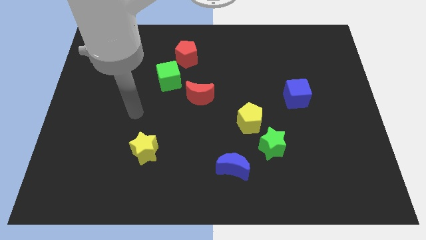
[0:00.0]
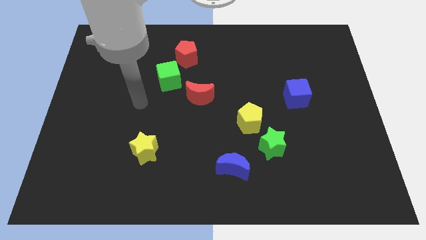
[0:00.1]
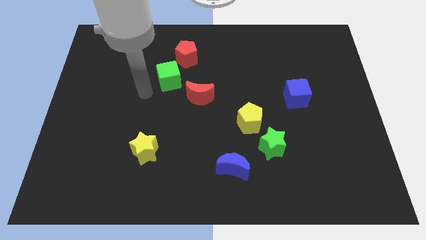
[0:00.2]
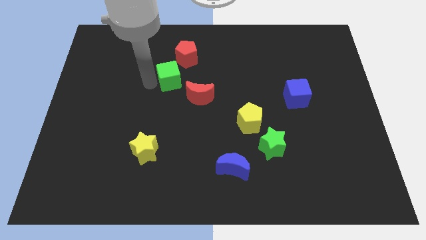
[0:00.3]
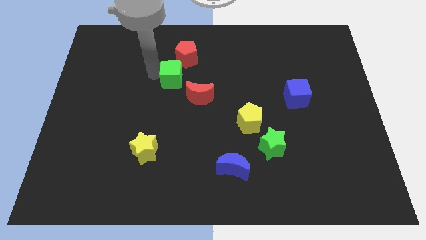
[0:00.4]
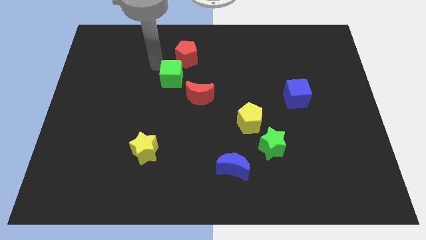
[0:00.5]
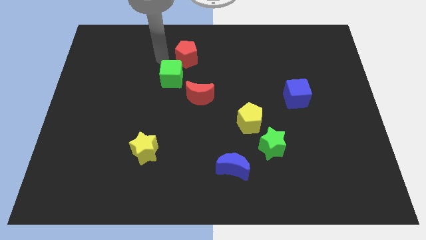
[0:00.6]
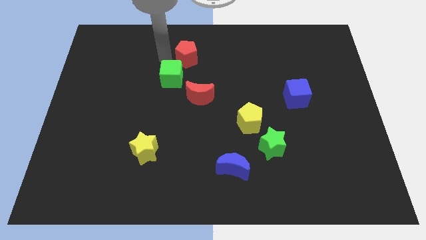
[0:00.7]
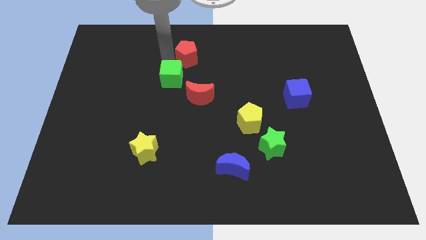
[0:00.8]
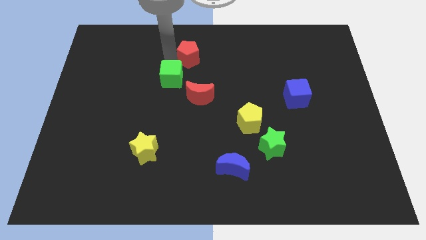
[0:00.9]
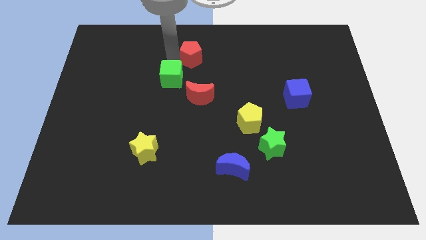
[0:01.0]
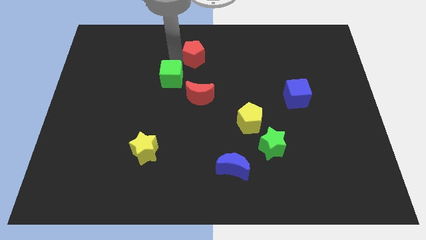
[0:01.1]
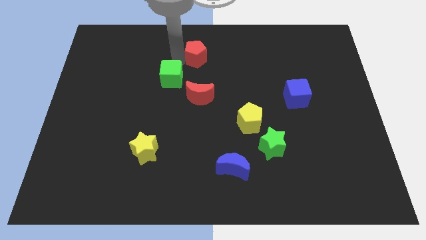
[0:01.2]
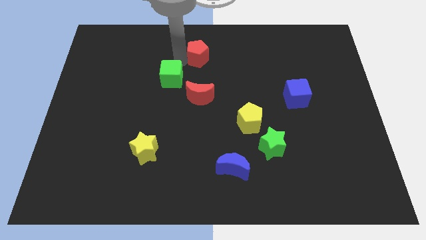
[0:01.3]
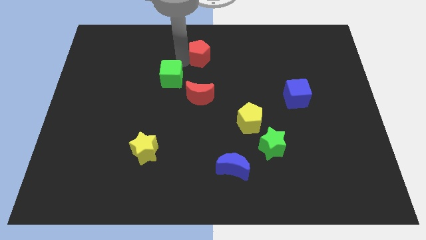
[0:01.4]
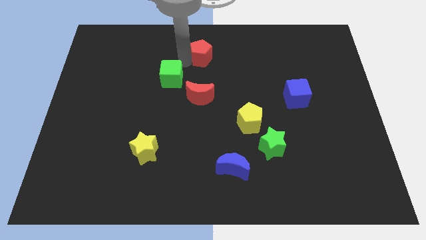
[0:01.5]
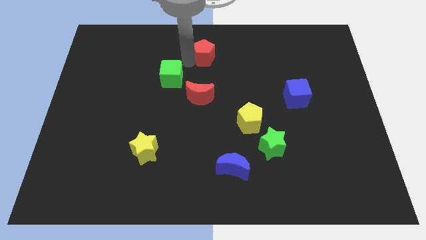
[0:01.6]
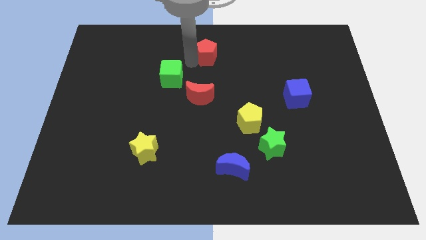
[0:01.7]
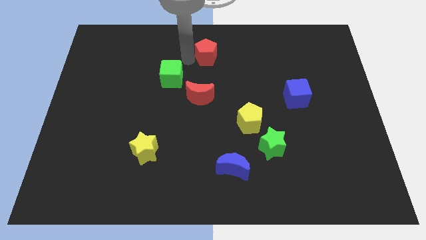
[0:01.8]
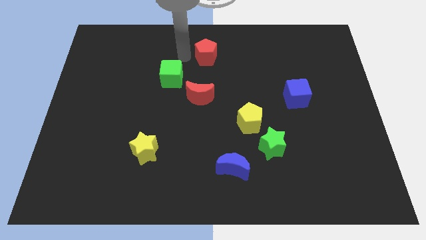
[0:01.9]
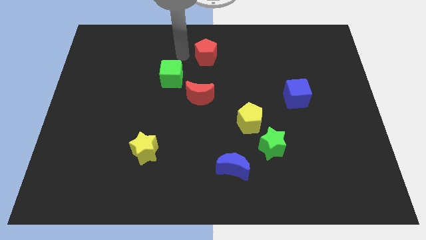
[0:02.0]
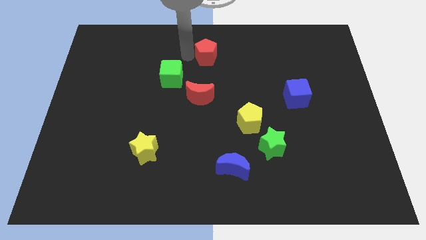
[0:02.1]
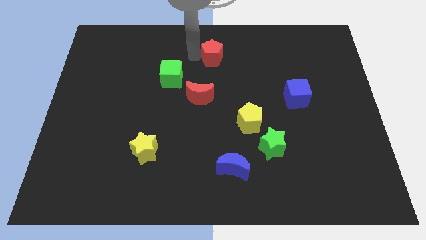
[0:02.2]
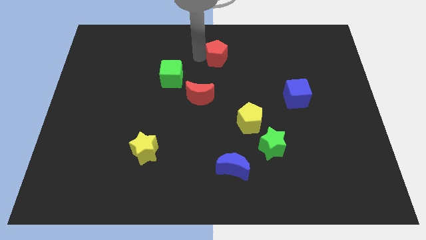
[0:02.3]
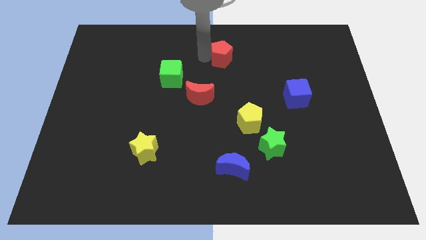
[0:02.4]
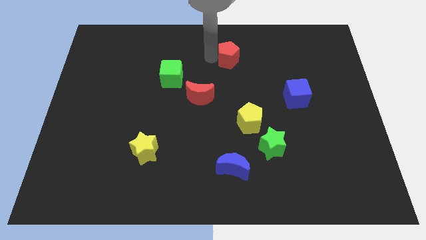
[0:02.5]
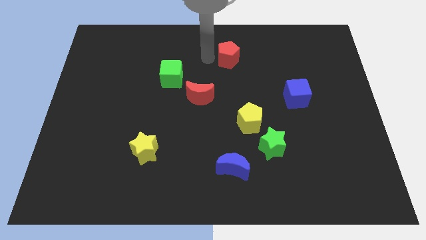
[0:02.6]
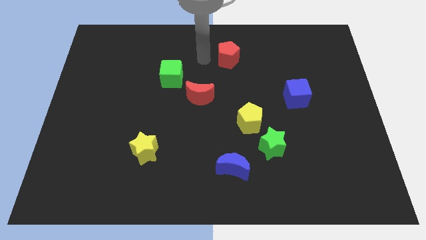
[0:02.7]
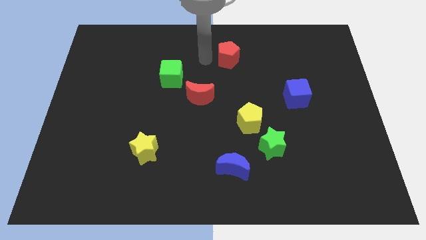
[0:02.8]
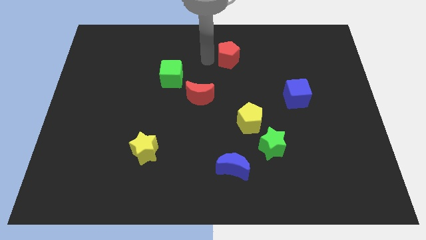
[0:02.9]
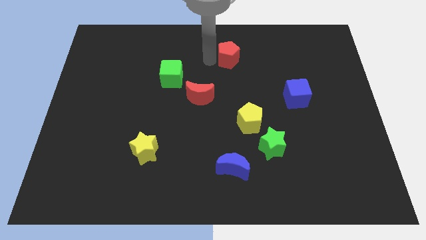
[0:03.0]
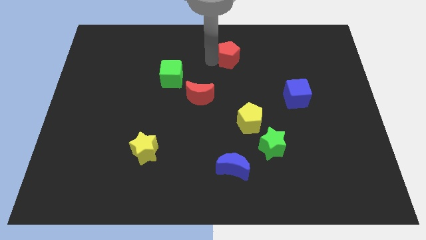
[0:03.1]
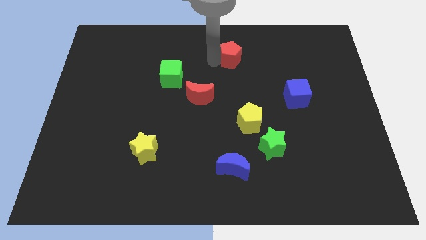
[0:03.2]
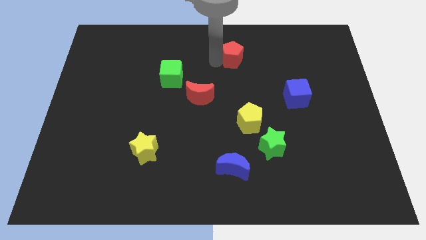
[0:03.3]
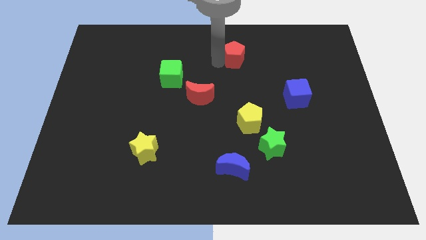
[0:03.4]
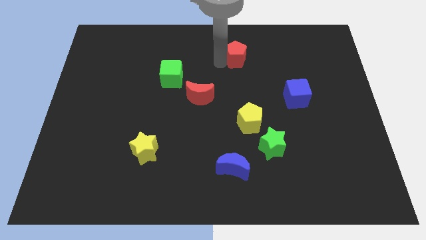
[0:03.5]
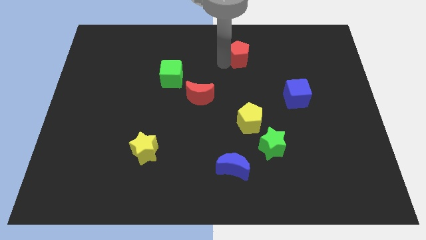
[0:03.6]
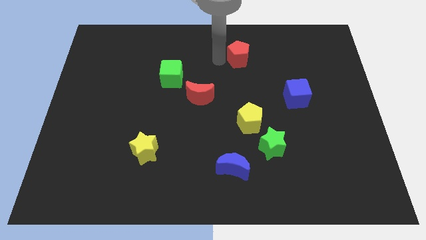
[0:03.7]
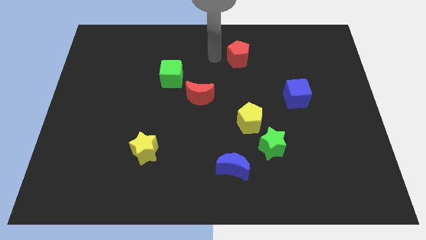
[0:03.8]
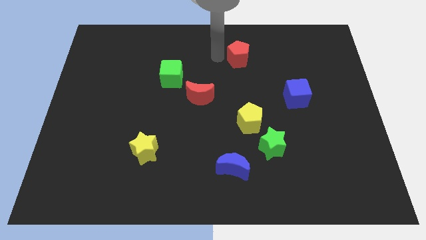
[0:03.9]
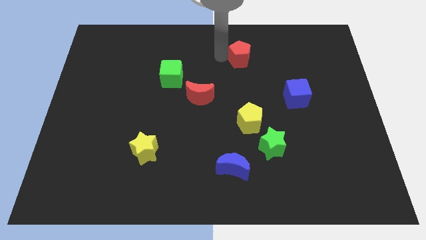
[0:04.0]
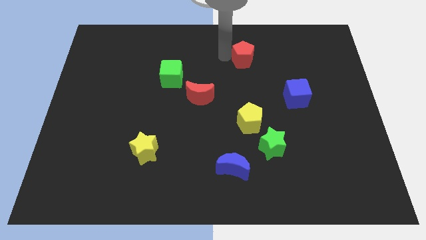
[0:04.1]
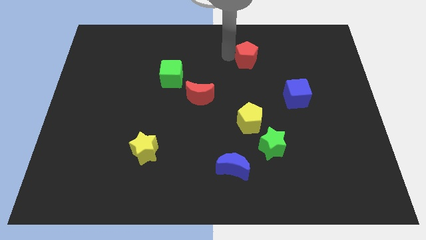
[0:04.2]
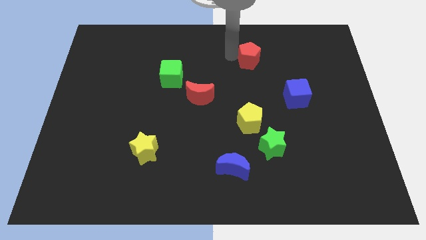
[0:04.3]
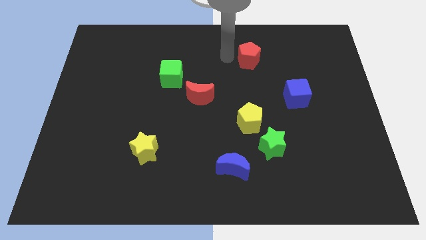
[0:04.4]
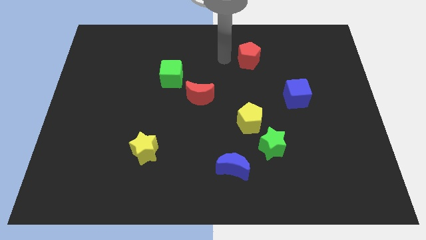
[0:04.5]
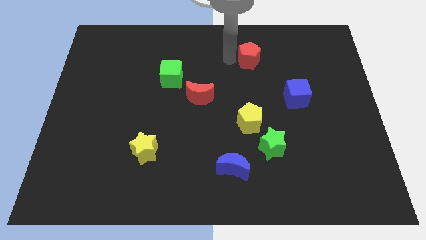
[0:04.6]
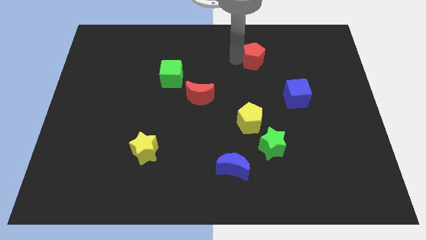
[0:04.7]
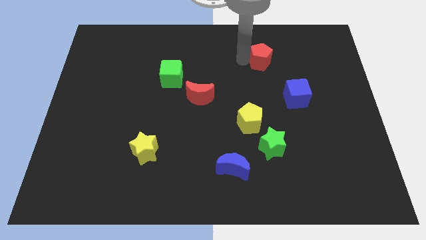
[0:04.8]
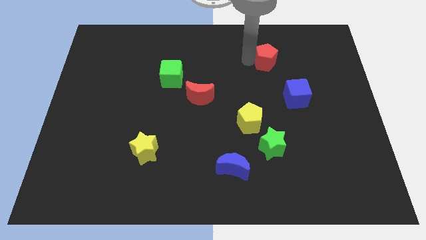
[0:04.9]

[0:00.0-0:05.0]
move the red pentagon to the right

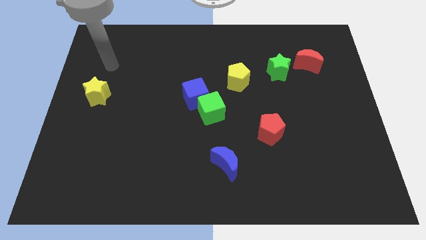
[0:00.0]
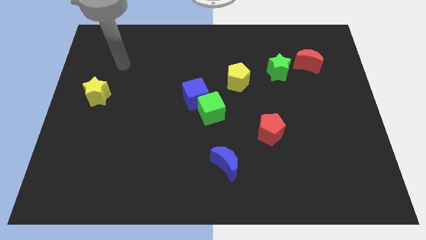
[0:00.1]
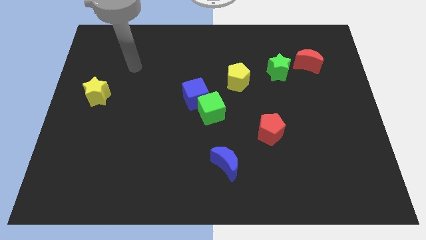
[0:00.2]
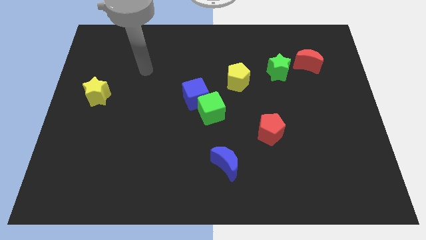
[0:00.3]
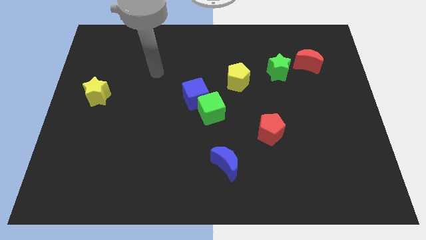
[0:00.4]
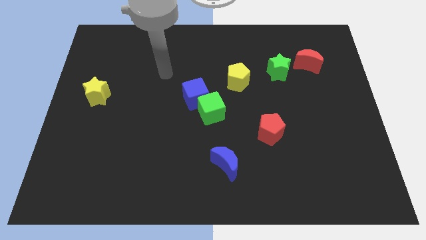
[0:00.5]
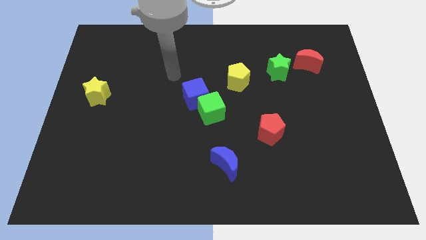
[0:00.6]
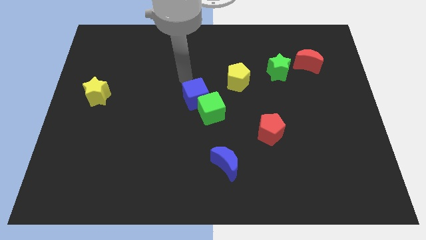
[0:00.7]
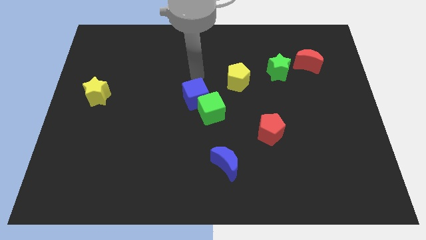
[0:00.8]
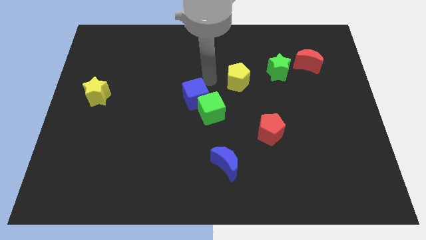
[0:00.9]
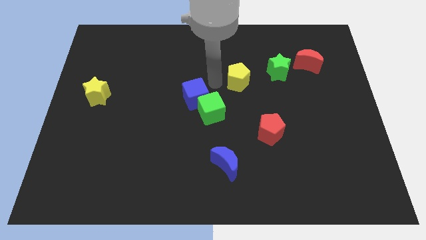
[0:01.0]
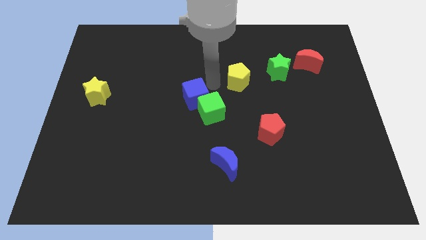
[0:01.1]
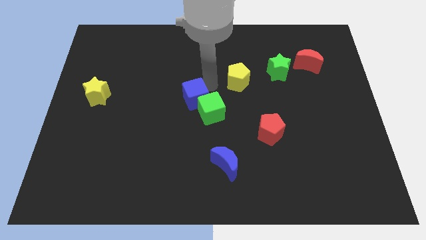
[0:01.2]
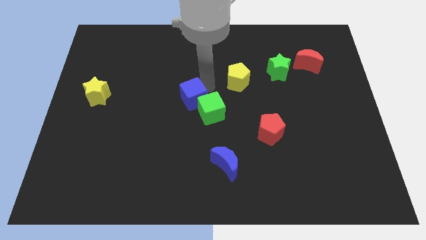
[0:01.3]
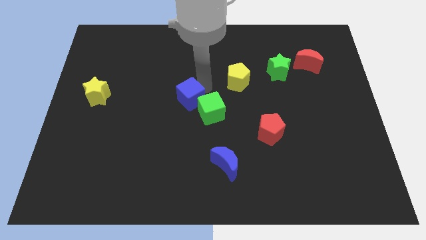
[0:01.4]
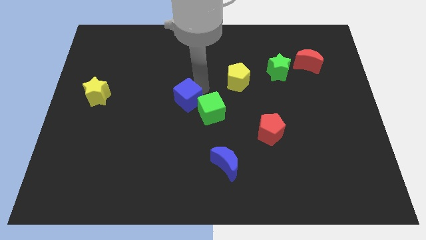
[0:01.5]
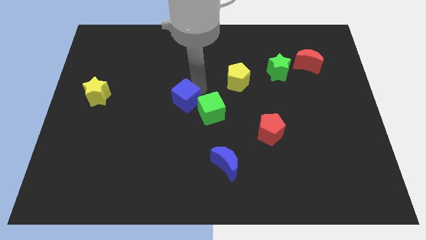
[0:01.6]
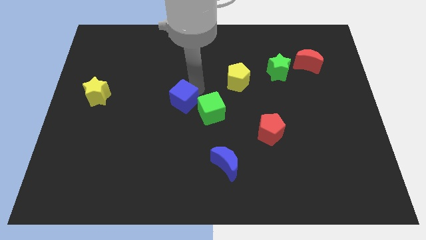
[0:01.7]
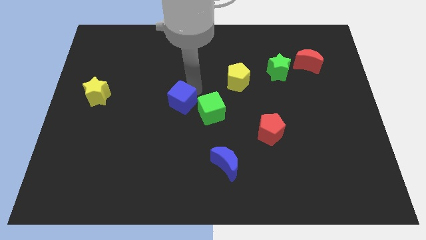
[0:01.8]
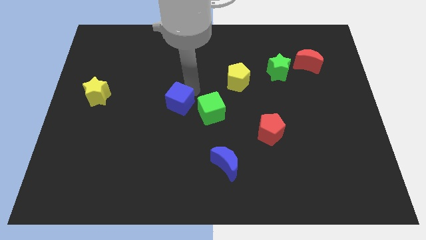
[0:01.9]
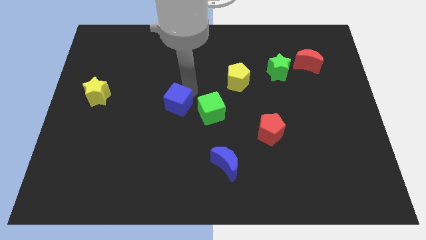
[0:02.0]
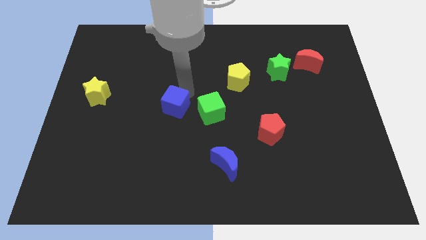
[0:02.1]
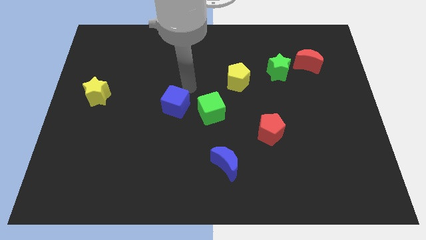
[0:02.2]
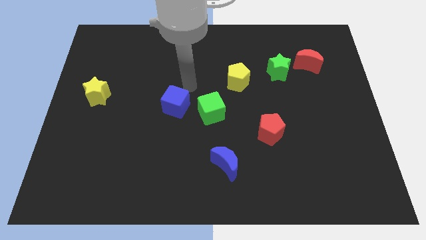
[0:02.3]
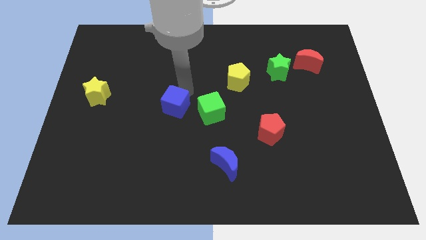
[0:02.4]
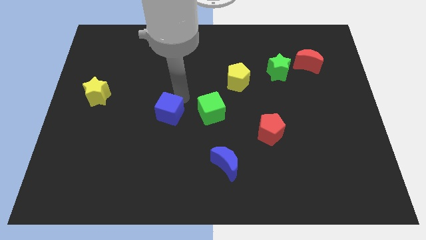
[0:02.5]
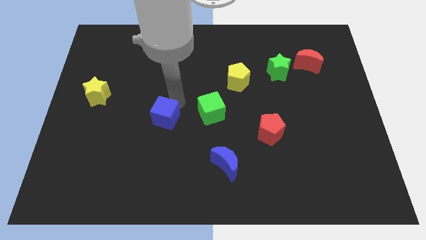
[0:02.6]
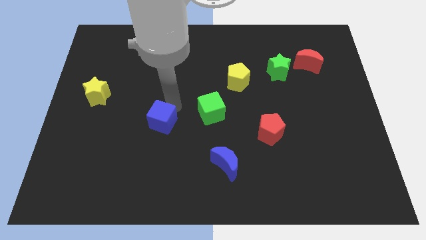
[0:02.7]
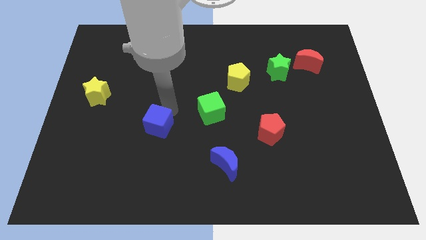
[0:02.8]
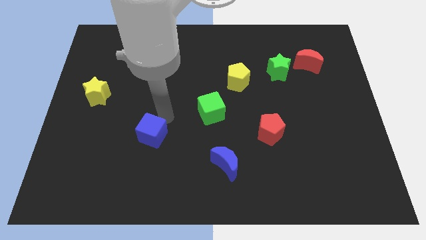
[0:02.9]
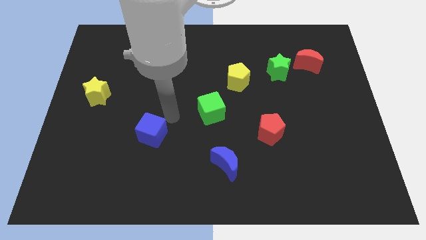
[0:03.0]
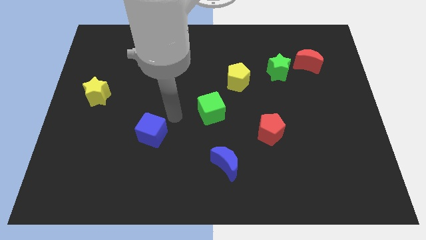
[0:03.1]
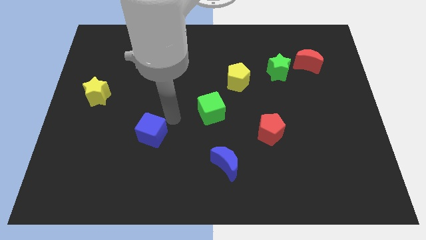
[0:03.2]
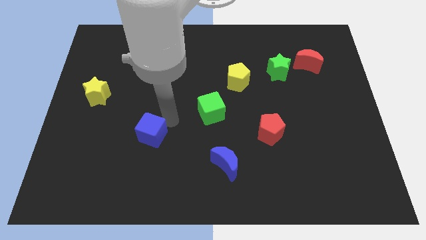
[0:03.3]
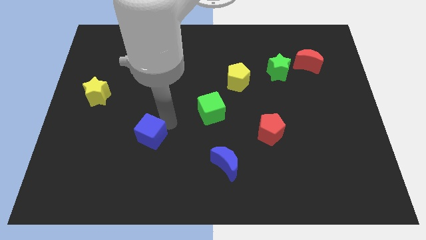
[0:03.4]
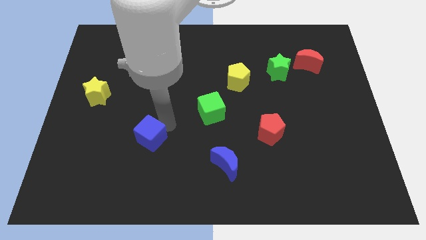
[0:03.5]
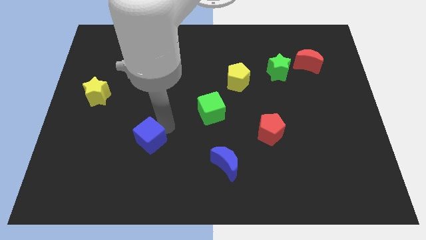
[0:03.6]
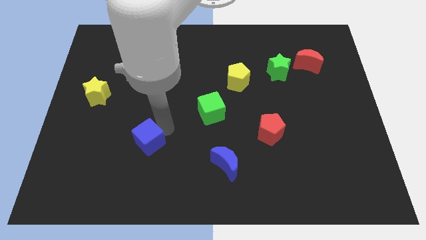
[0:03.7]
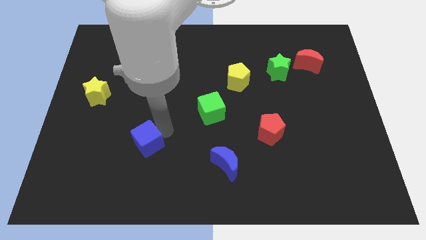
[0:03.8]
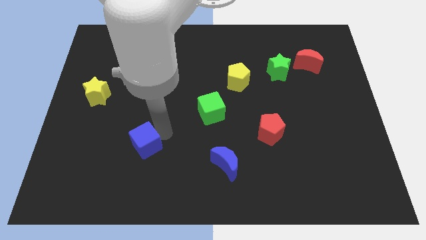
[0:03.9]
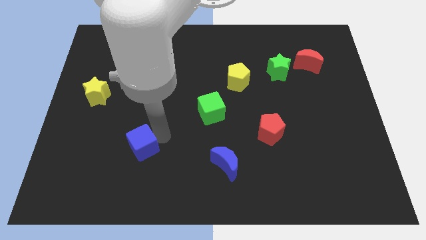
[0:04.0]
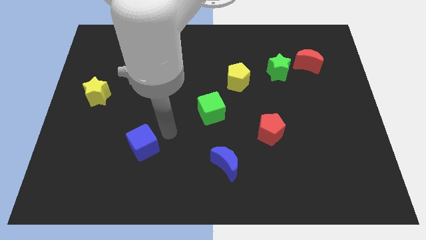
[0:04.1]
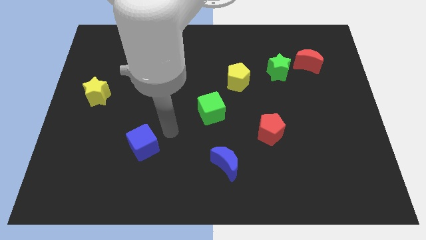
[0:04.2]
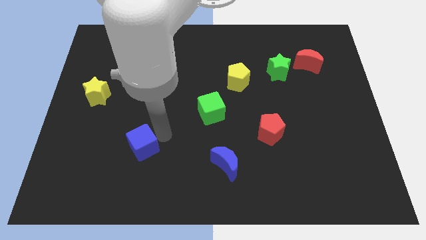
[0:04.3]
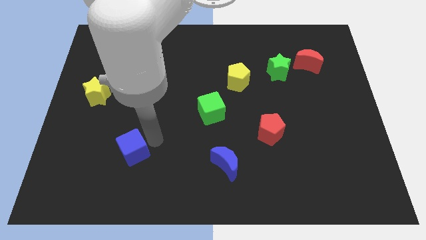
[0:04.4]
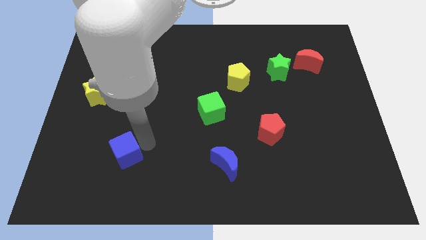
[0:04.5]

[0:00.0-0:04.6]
push the blue cube diagonally down and to the left
